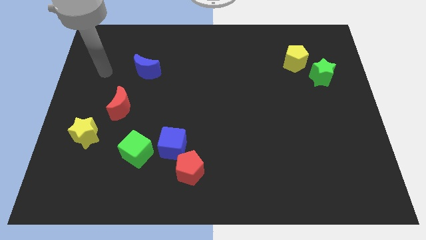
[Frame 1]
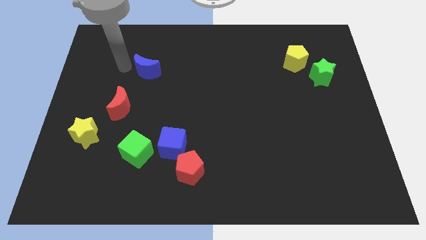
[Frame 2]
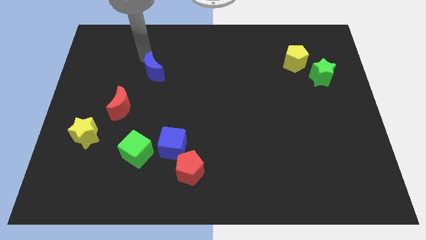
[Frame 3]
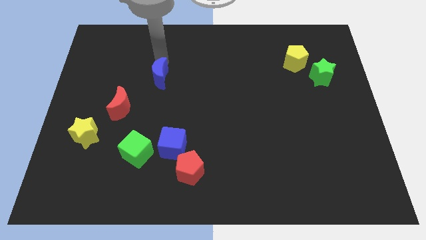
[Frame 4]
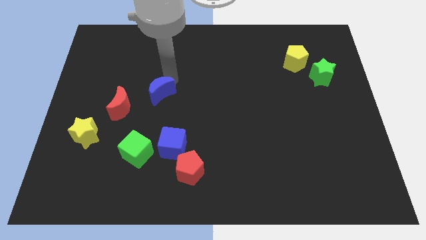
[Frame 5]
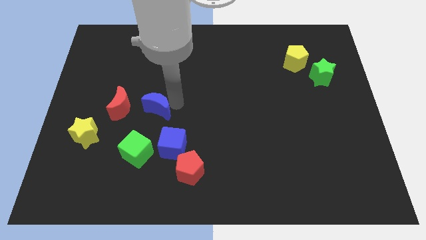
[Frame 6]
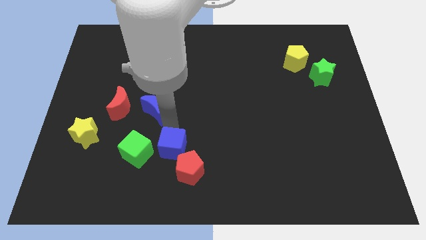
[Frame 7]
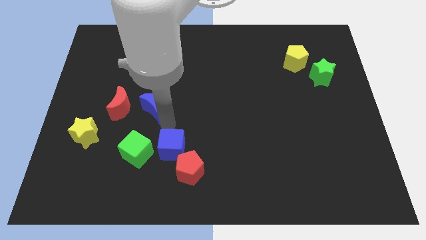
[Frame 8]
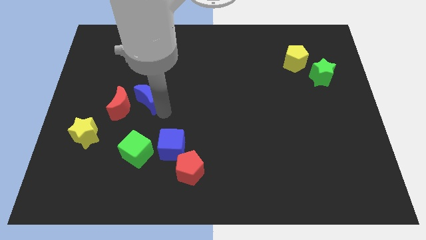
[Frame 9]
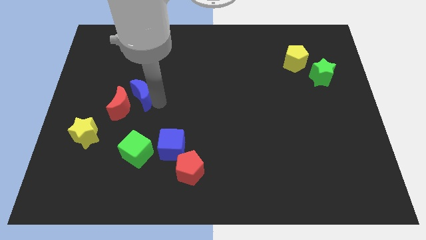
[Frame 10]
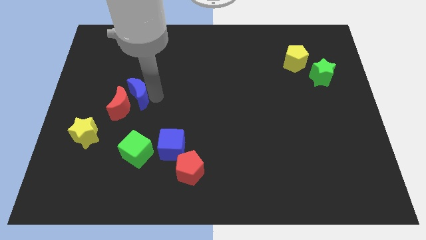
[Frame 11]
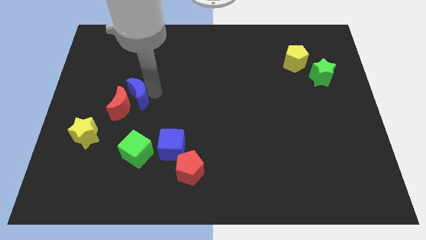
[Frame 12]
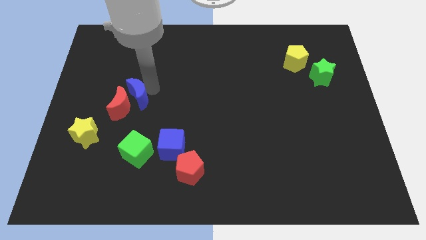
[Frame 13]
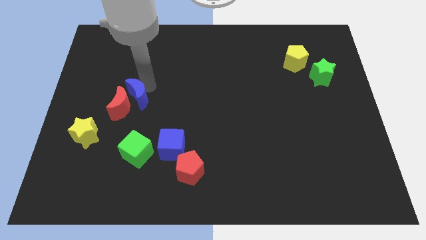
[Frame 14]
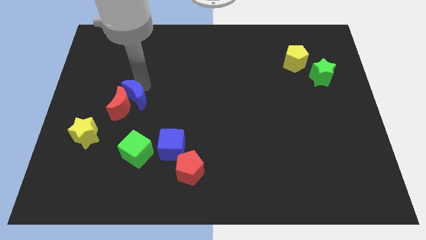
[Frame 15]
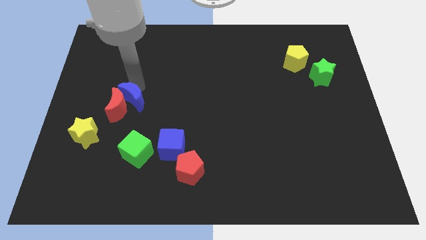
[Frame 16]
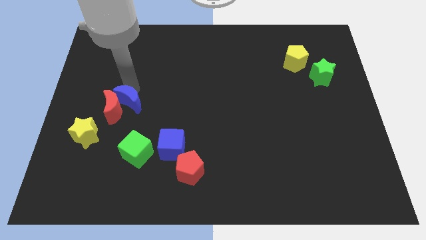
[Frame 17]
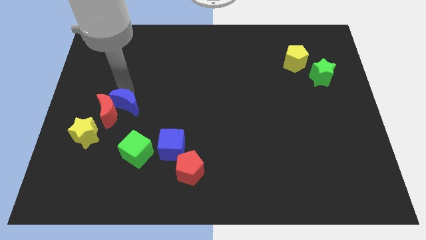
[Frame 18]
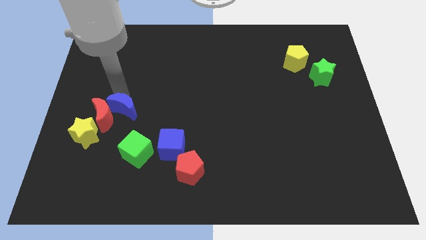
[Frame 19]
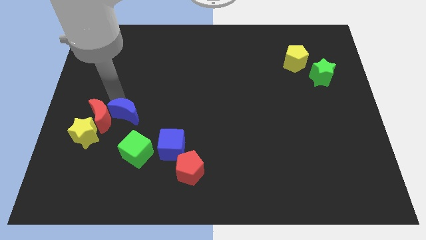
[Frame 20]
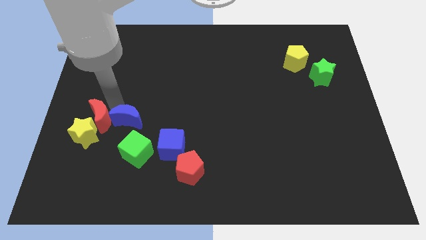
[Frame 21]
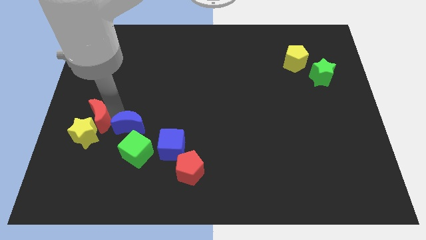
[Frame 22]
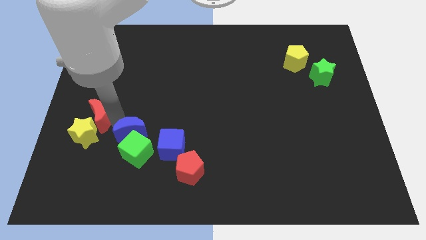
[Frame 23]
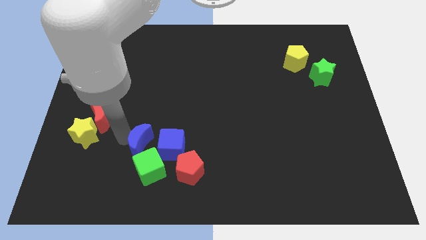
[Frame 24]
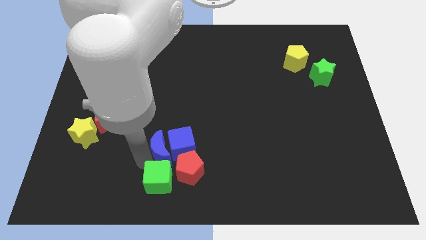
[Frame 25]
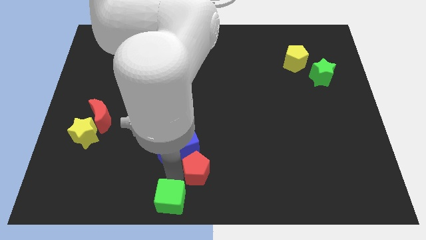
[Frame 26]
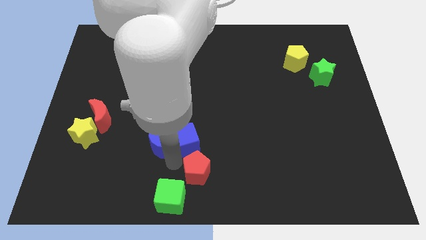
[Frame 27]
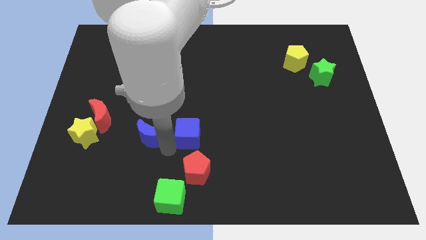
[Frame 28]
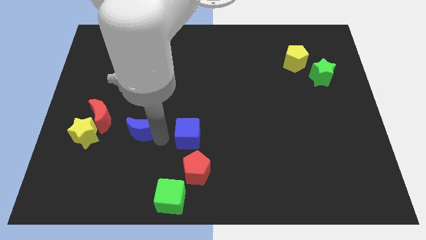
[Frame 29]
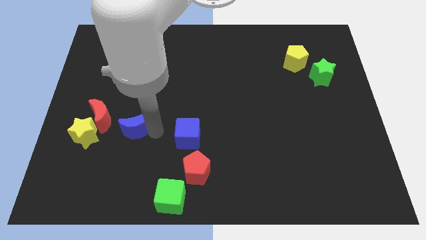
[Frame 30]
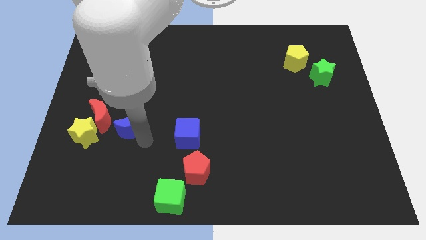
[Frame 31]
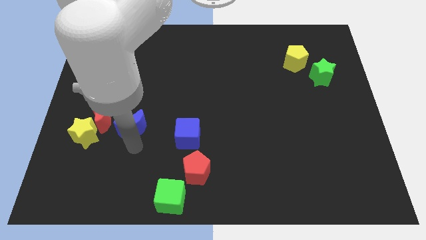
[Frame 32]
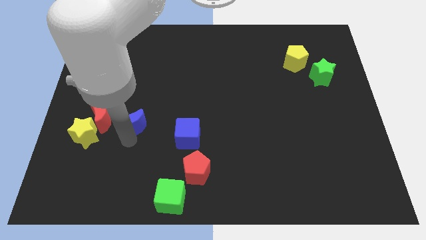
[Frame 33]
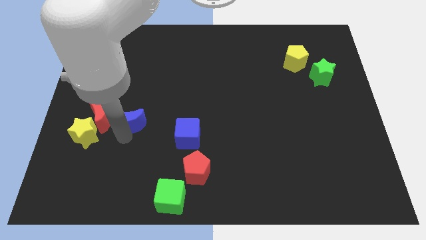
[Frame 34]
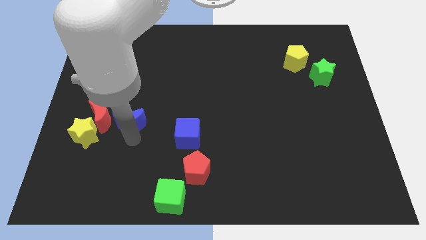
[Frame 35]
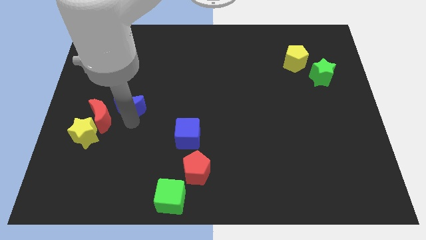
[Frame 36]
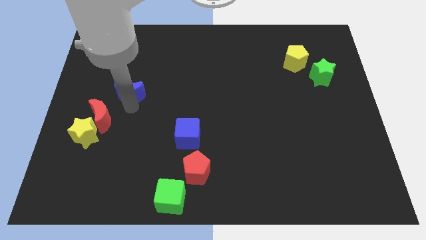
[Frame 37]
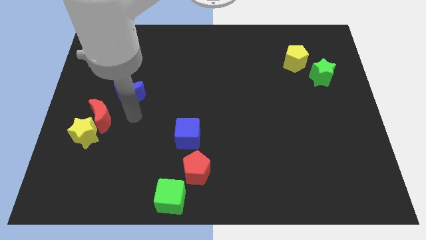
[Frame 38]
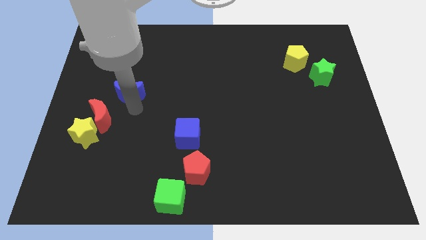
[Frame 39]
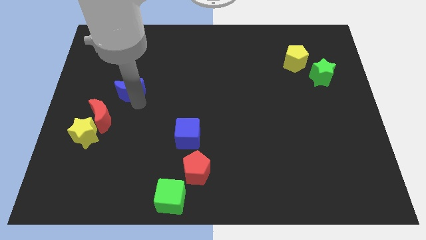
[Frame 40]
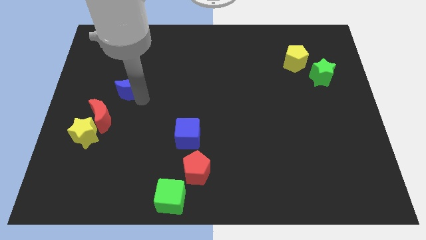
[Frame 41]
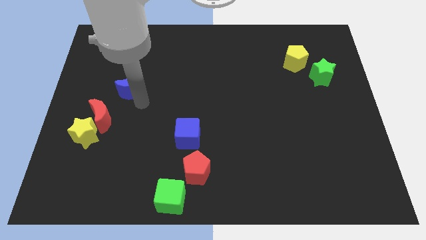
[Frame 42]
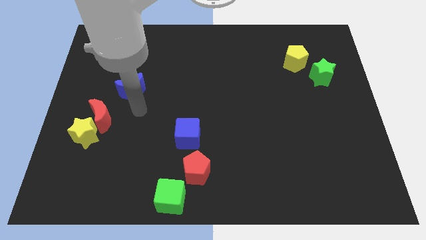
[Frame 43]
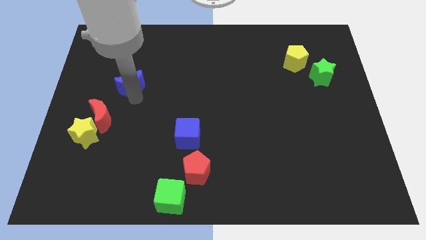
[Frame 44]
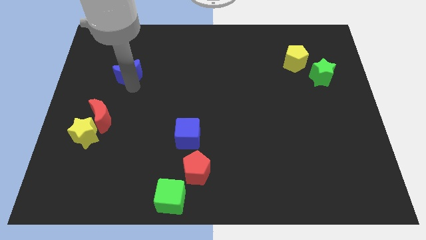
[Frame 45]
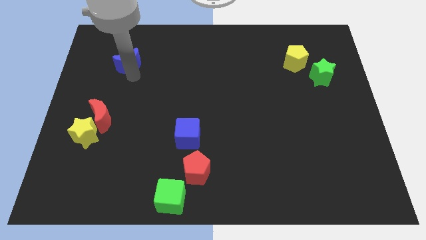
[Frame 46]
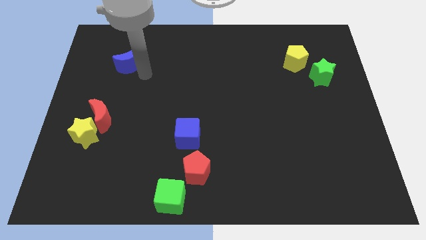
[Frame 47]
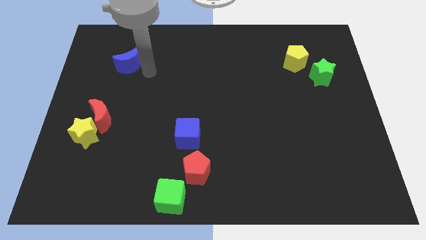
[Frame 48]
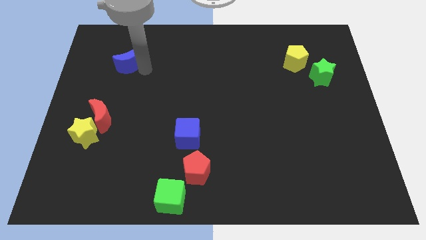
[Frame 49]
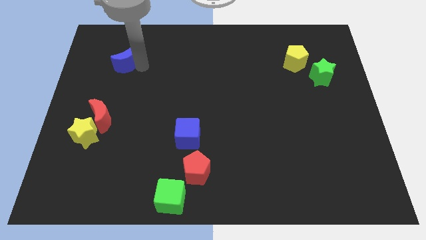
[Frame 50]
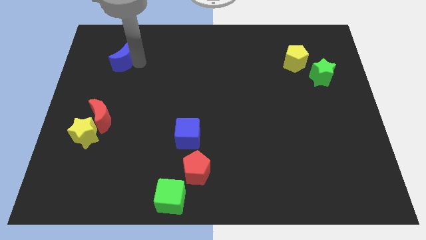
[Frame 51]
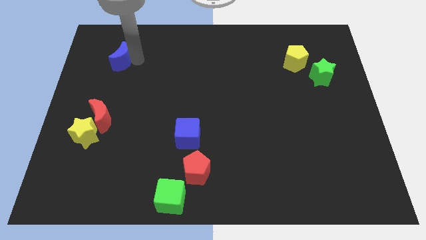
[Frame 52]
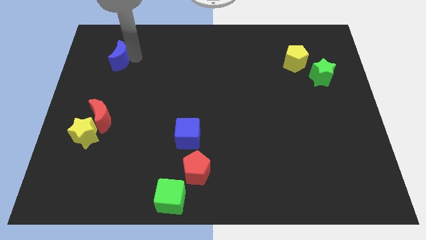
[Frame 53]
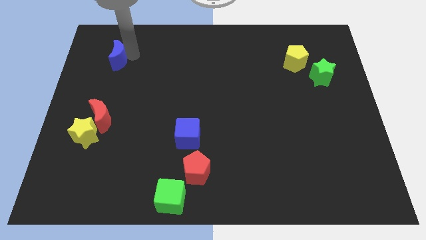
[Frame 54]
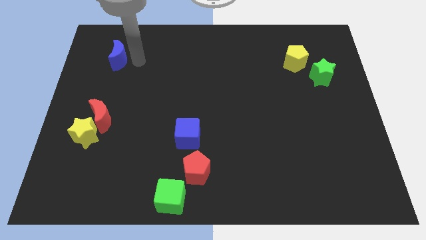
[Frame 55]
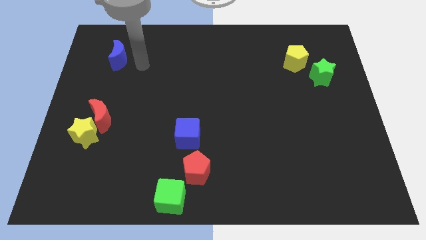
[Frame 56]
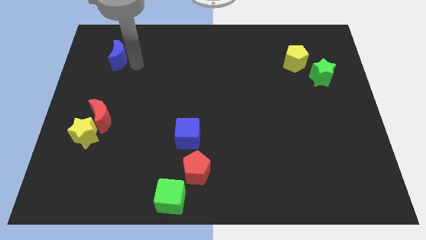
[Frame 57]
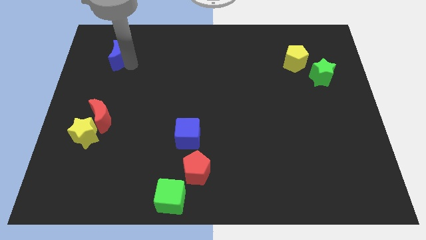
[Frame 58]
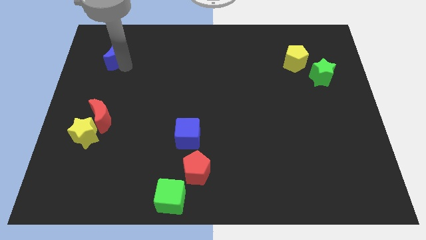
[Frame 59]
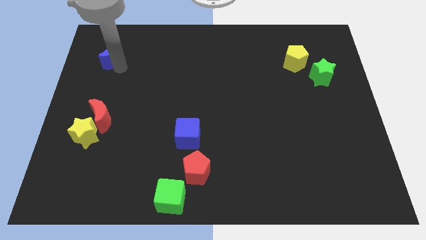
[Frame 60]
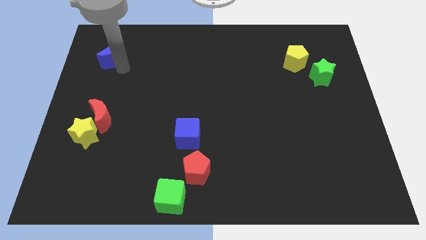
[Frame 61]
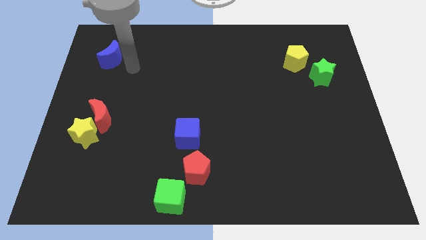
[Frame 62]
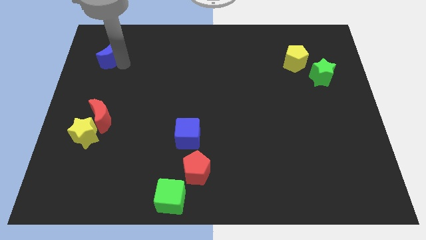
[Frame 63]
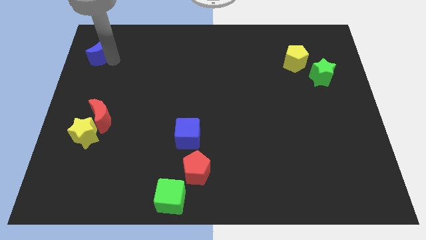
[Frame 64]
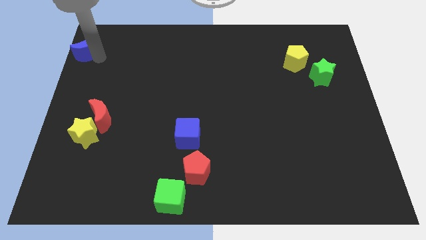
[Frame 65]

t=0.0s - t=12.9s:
move the blue moon to the top left of the board
